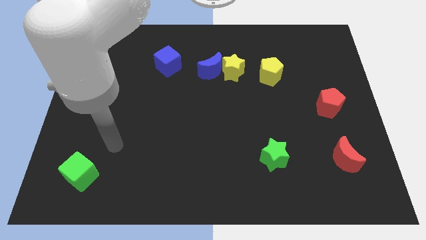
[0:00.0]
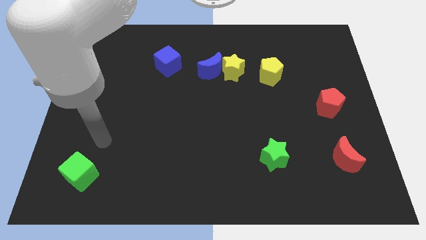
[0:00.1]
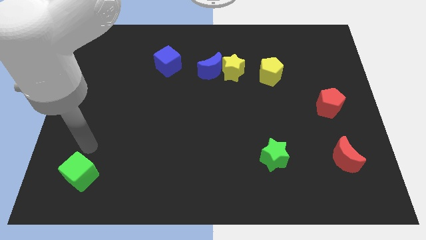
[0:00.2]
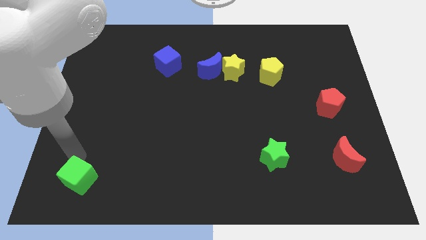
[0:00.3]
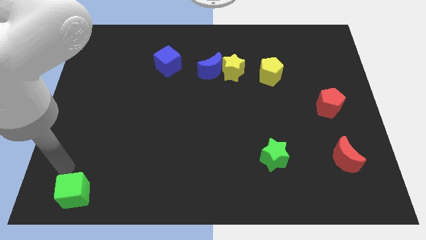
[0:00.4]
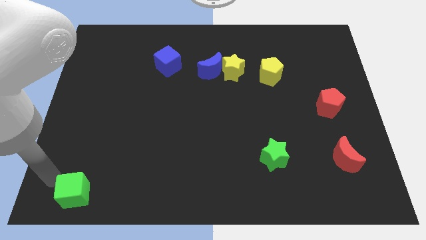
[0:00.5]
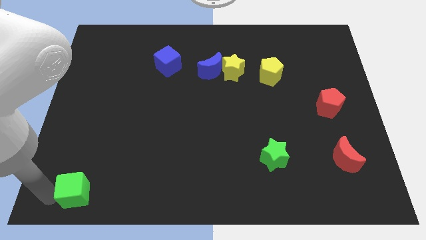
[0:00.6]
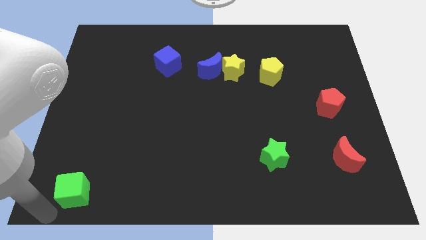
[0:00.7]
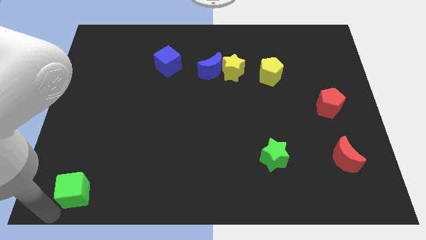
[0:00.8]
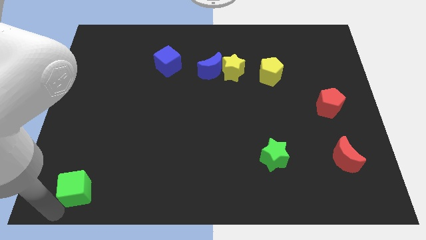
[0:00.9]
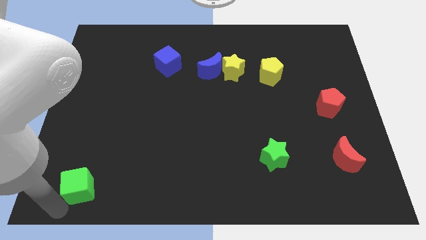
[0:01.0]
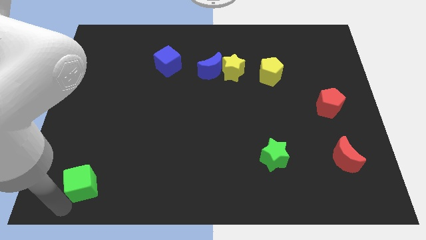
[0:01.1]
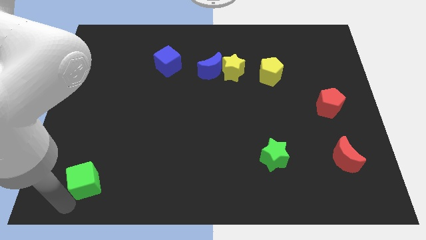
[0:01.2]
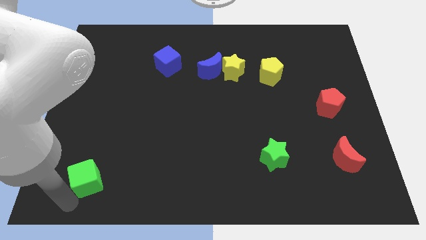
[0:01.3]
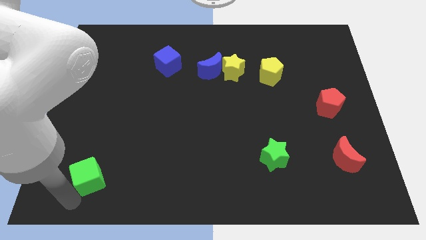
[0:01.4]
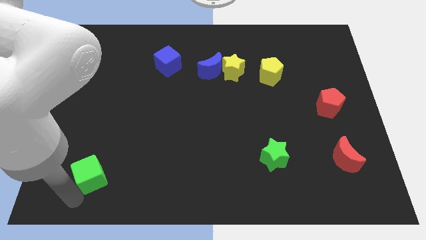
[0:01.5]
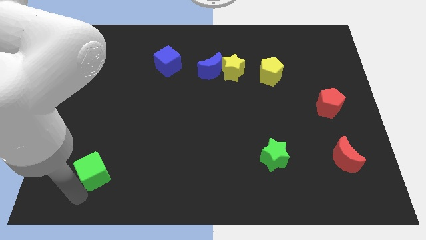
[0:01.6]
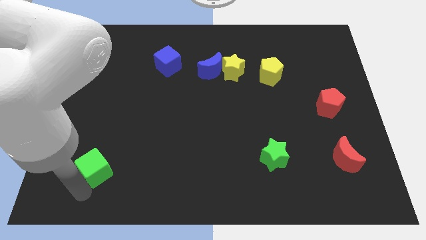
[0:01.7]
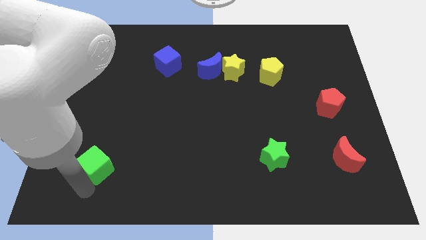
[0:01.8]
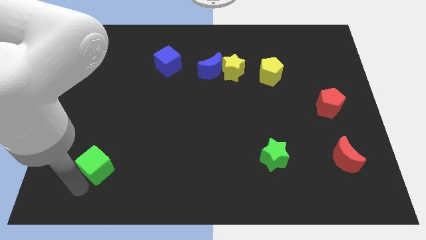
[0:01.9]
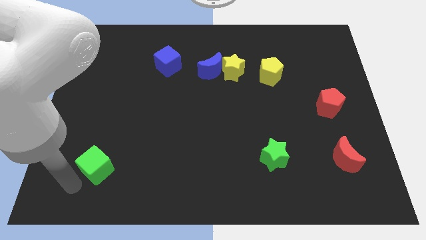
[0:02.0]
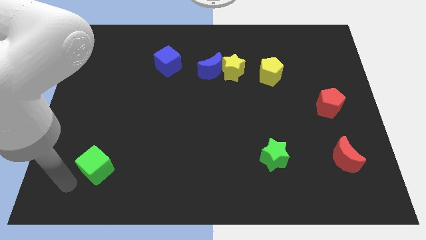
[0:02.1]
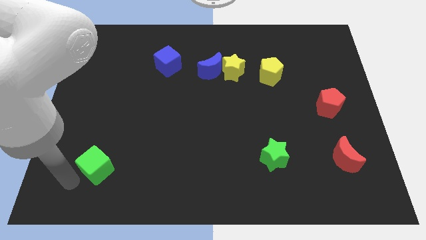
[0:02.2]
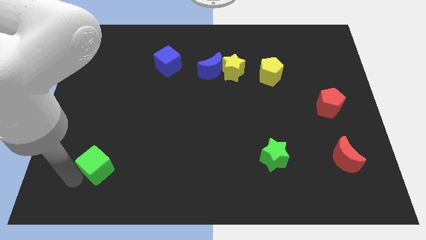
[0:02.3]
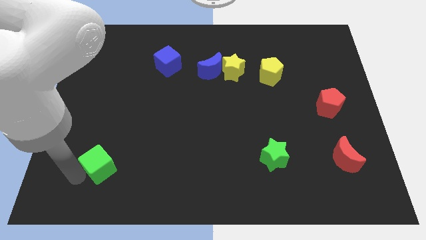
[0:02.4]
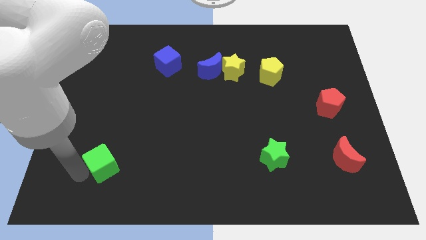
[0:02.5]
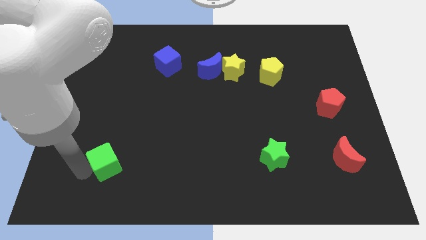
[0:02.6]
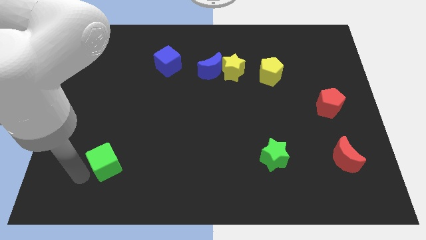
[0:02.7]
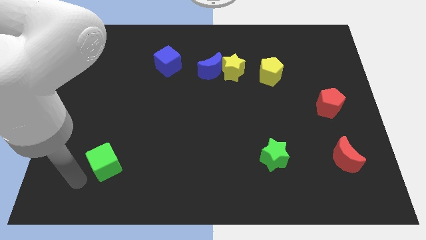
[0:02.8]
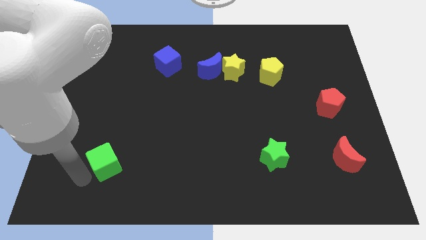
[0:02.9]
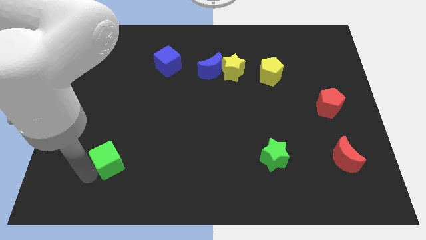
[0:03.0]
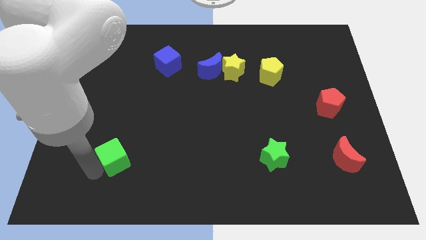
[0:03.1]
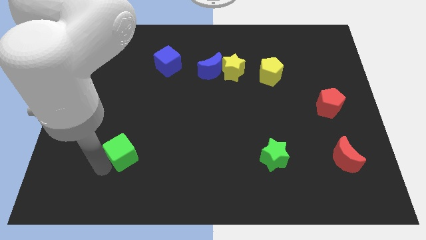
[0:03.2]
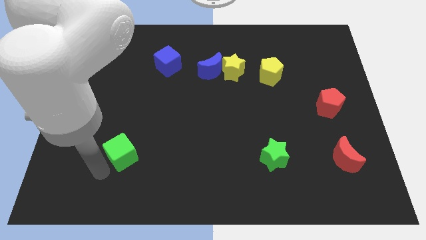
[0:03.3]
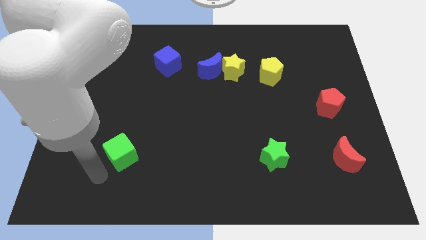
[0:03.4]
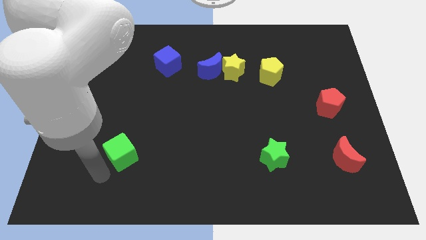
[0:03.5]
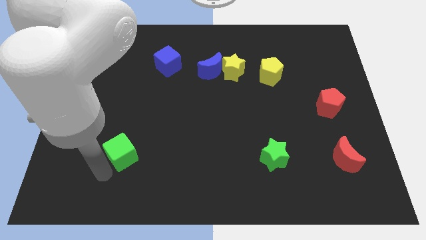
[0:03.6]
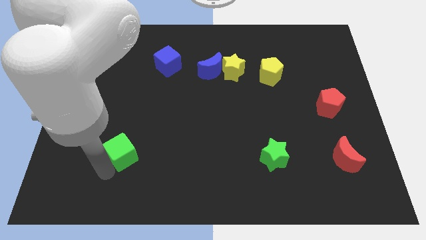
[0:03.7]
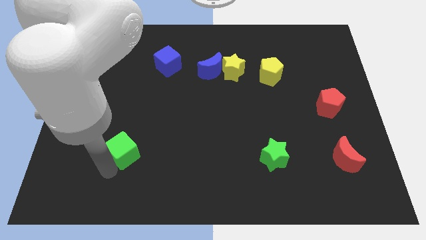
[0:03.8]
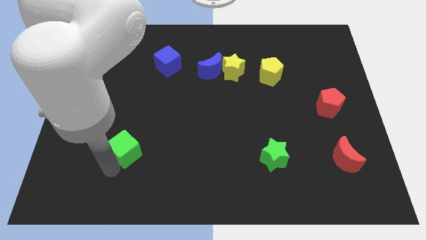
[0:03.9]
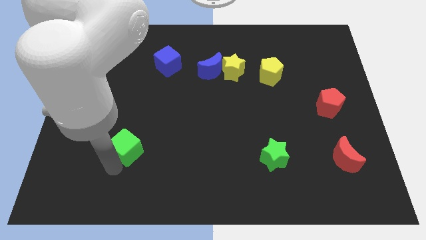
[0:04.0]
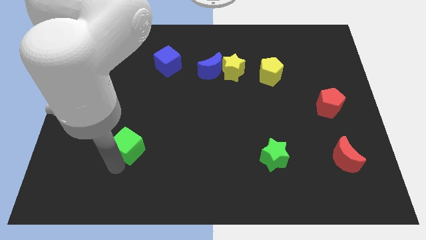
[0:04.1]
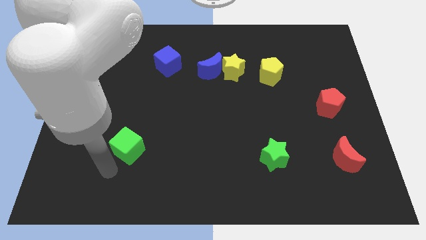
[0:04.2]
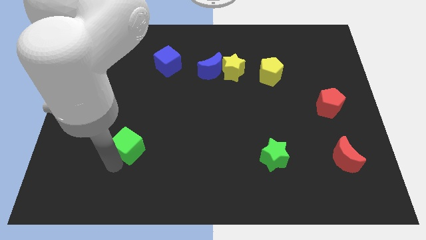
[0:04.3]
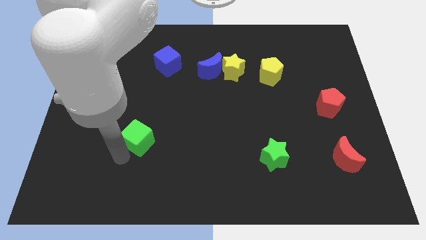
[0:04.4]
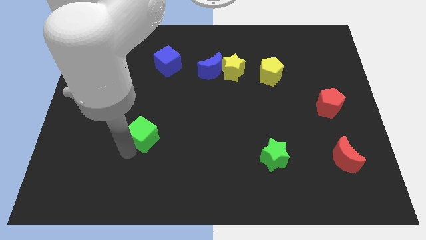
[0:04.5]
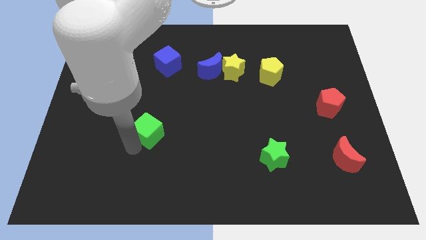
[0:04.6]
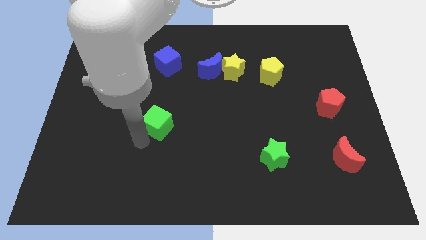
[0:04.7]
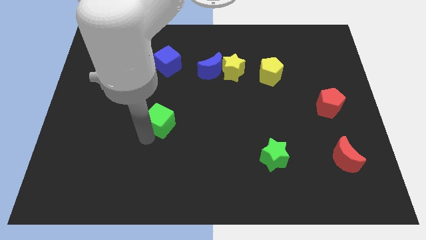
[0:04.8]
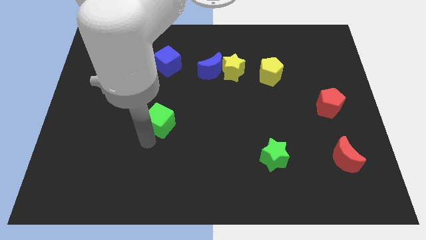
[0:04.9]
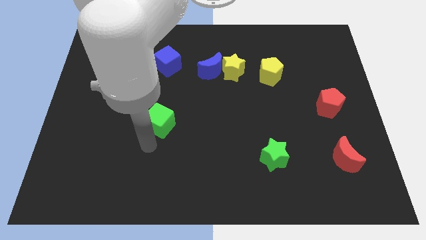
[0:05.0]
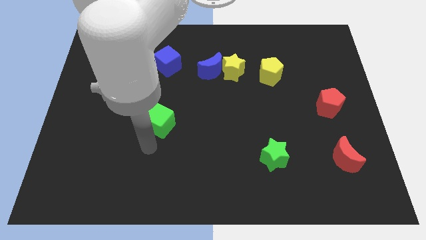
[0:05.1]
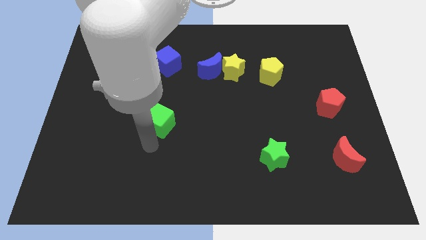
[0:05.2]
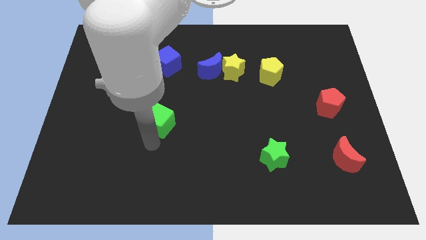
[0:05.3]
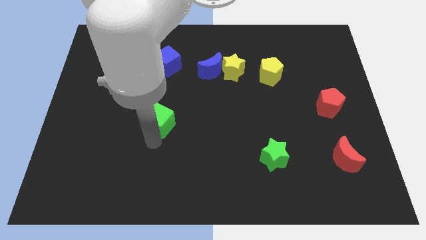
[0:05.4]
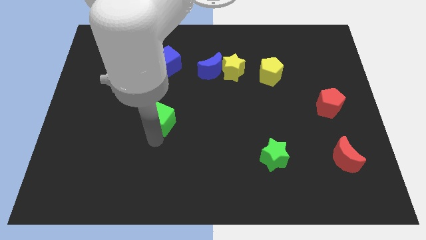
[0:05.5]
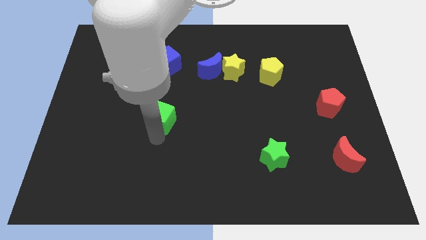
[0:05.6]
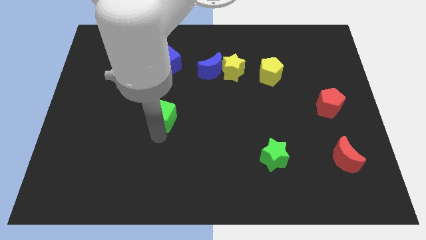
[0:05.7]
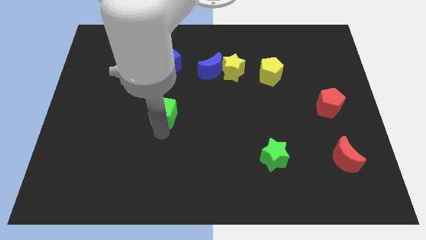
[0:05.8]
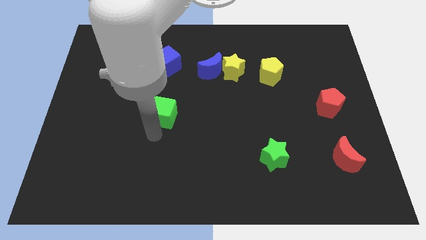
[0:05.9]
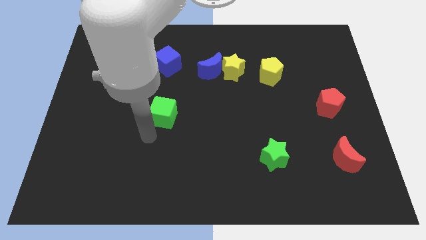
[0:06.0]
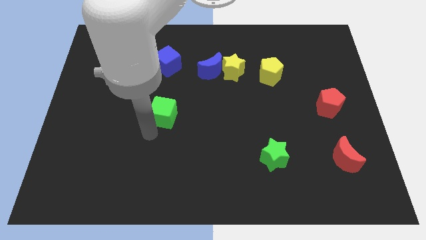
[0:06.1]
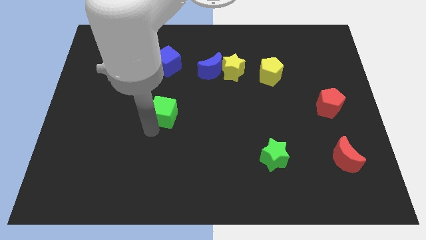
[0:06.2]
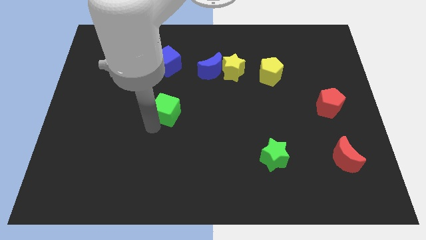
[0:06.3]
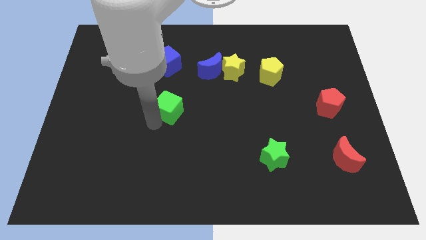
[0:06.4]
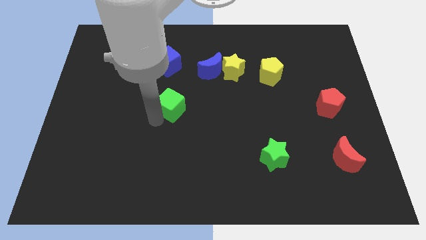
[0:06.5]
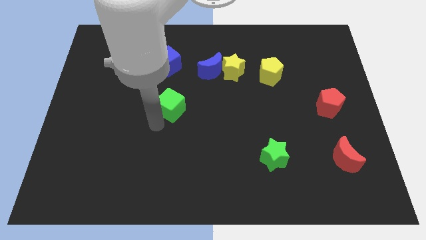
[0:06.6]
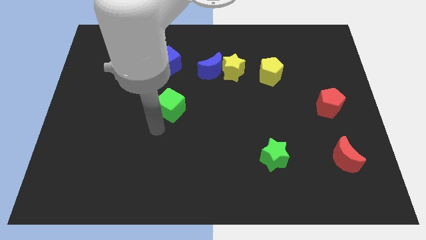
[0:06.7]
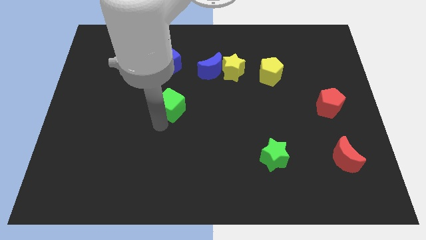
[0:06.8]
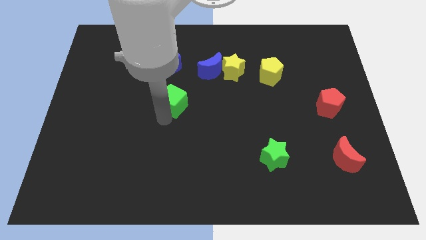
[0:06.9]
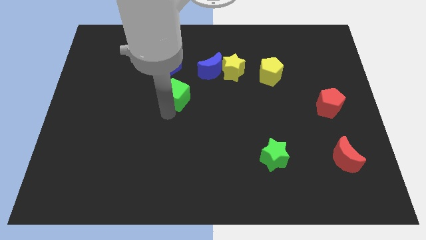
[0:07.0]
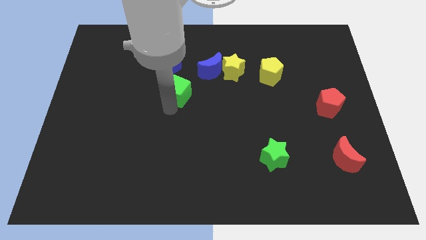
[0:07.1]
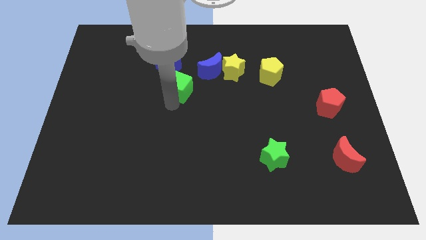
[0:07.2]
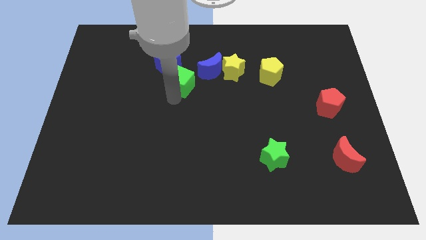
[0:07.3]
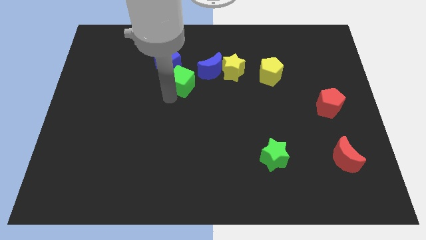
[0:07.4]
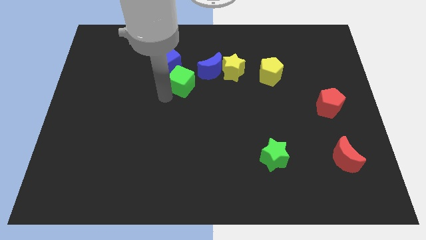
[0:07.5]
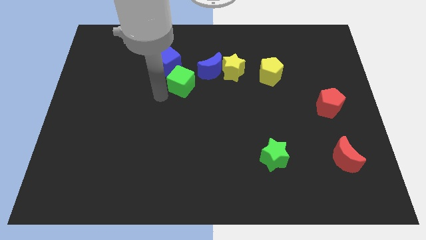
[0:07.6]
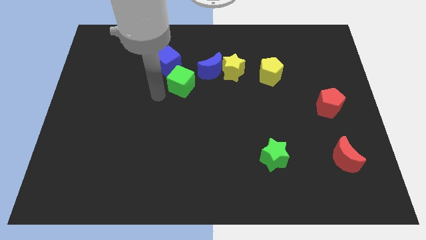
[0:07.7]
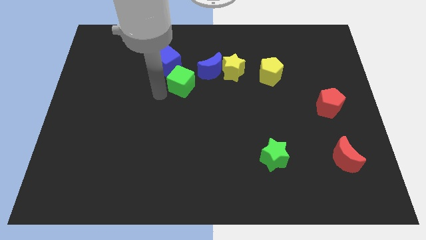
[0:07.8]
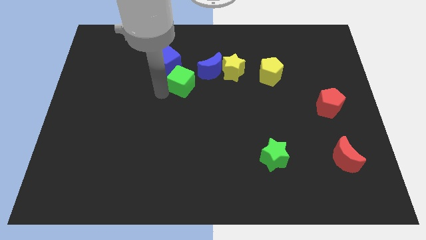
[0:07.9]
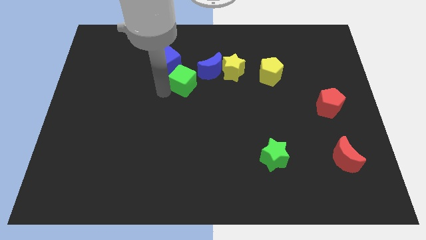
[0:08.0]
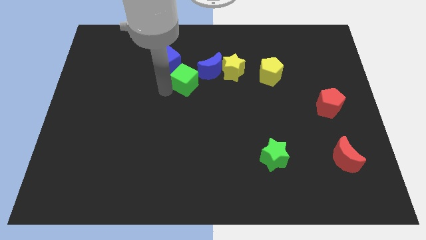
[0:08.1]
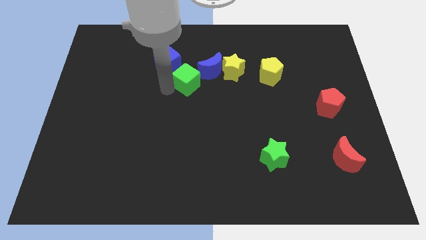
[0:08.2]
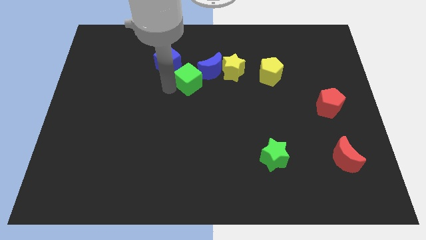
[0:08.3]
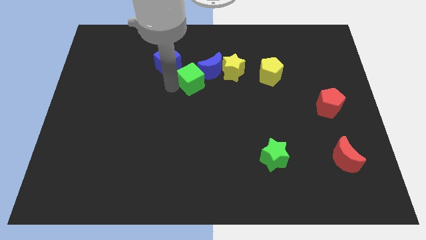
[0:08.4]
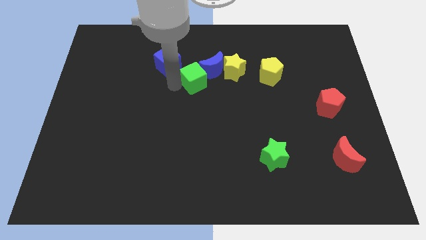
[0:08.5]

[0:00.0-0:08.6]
put the green cube towards the blue moon
